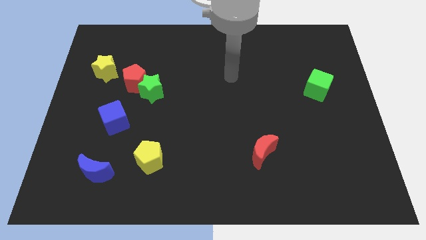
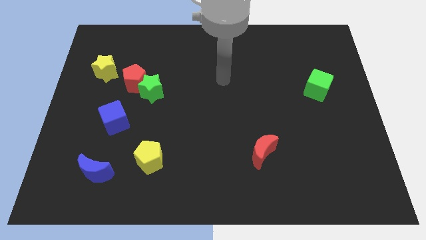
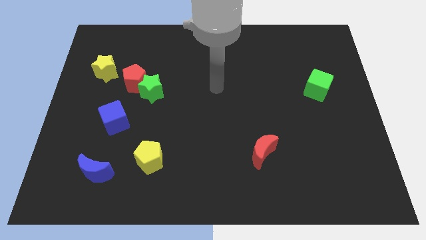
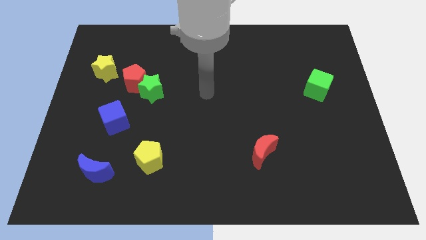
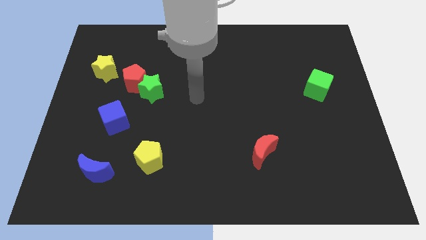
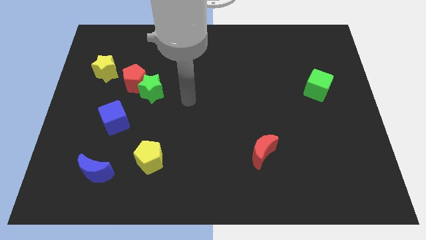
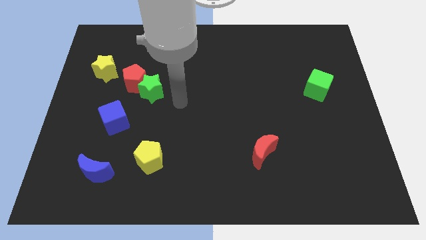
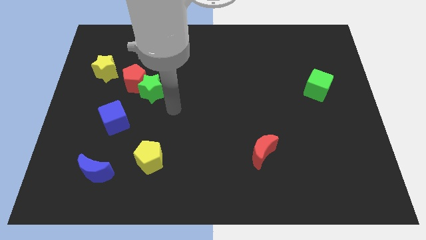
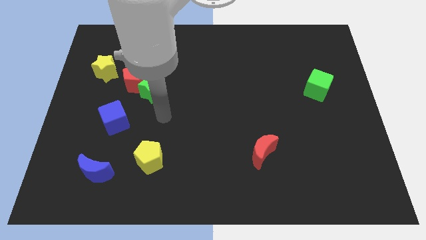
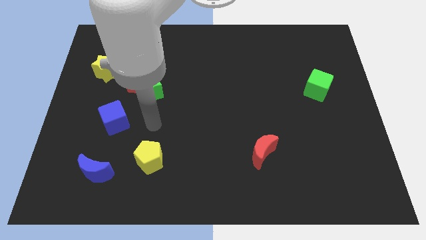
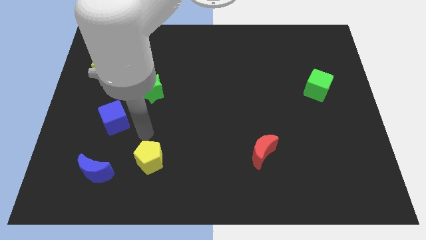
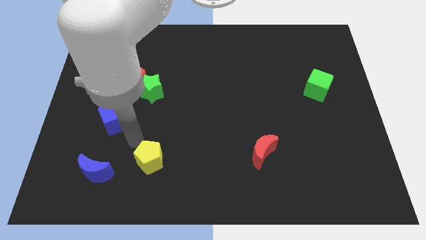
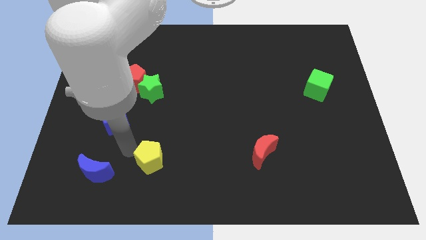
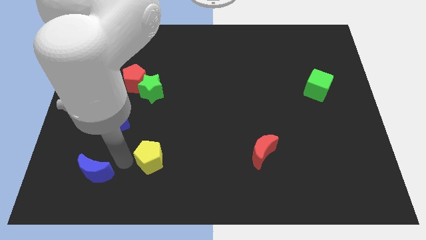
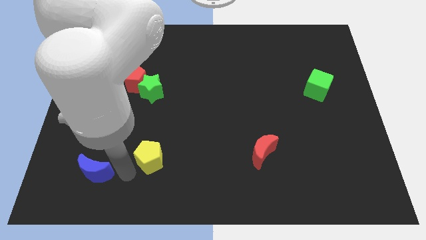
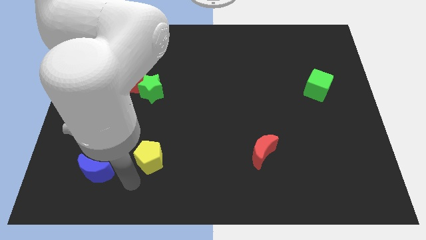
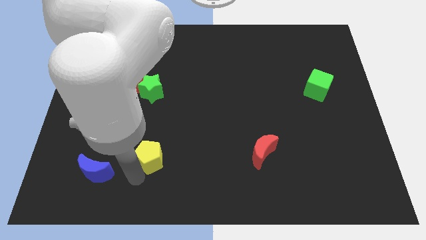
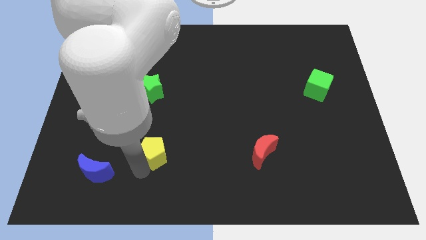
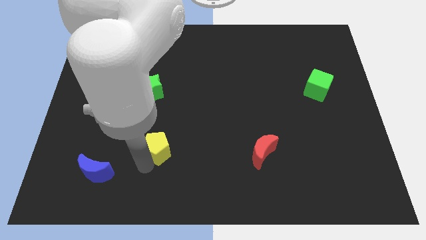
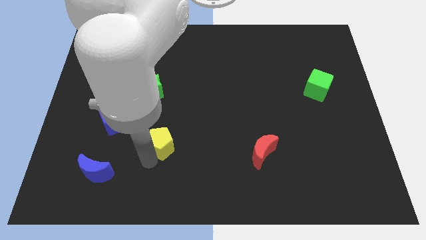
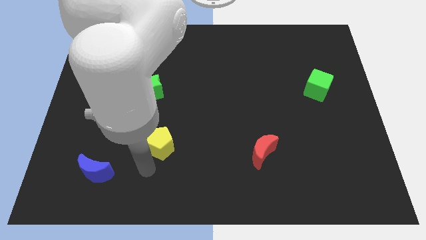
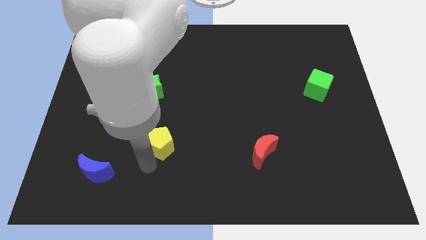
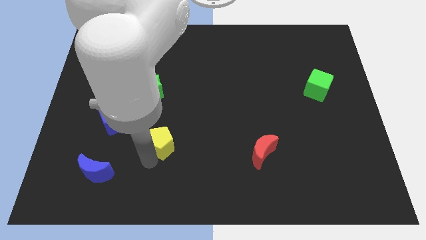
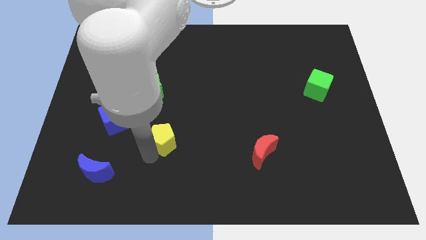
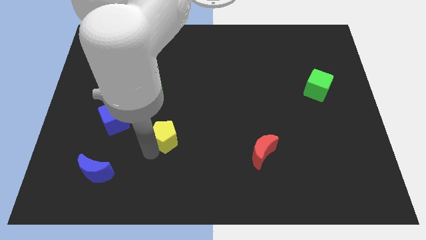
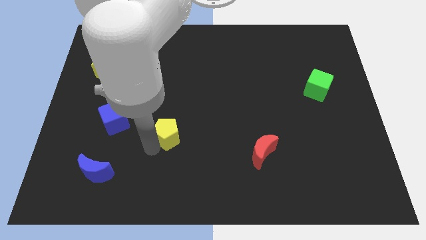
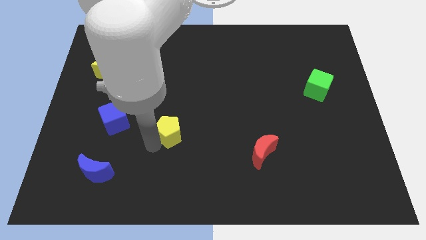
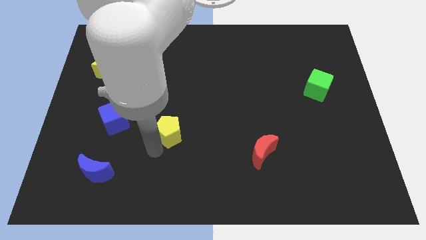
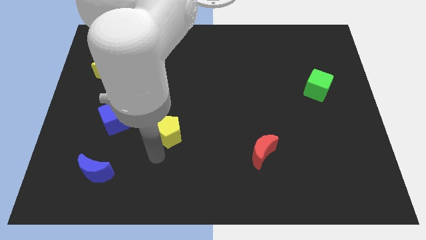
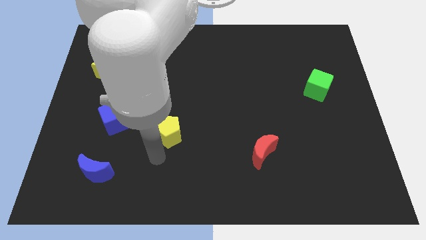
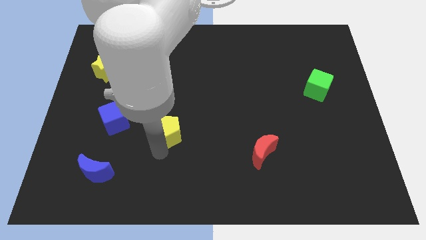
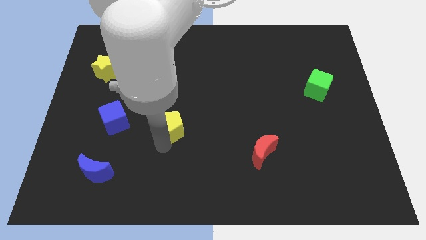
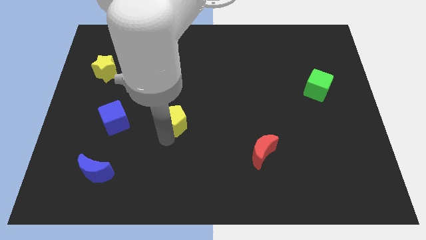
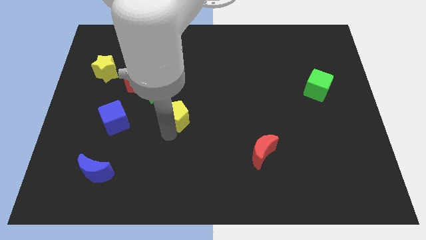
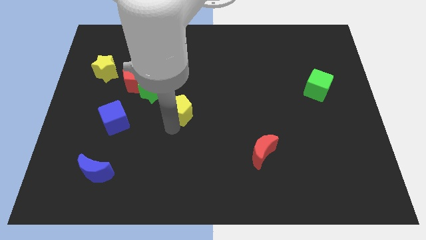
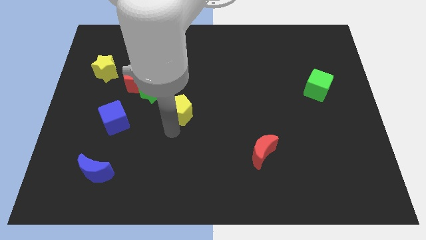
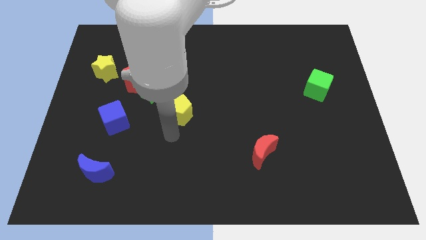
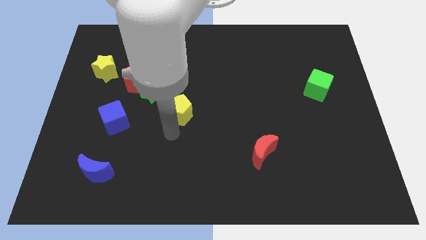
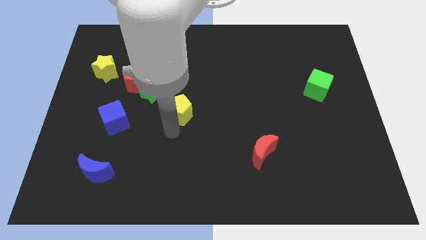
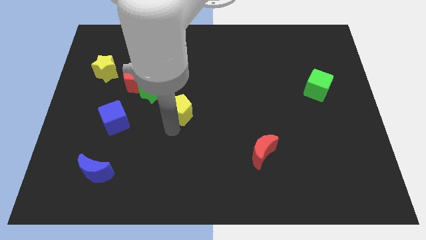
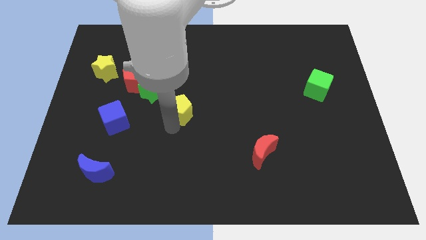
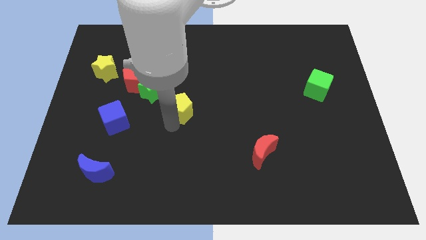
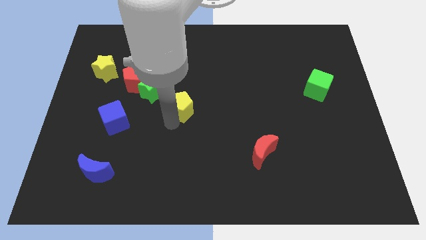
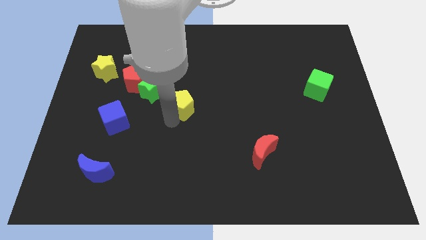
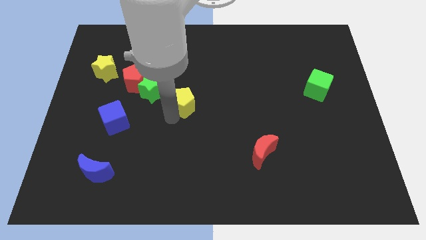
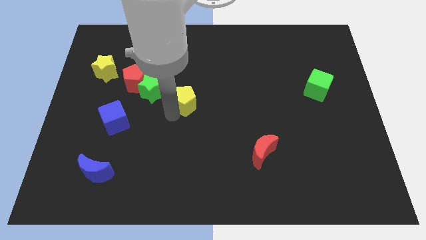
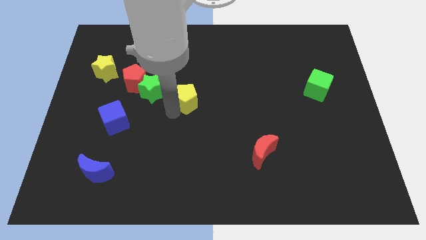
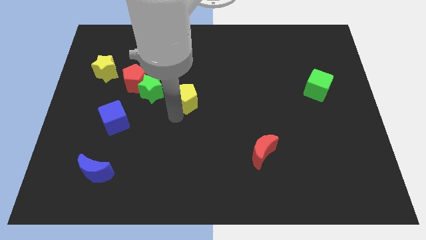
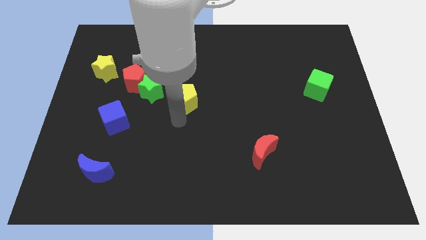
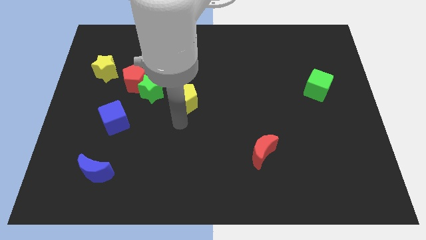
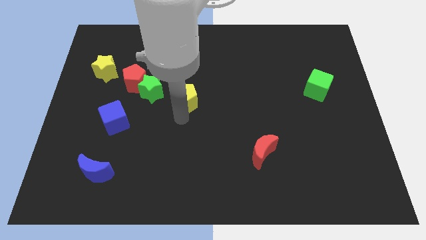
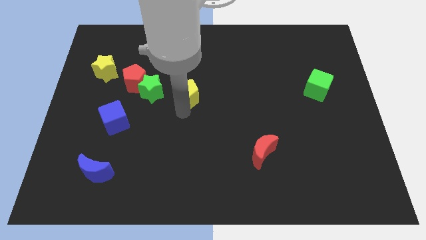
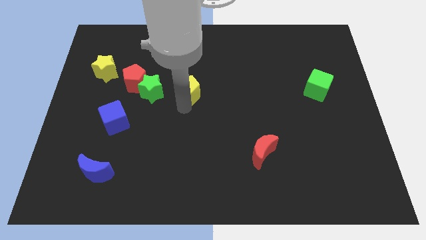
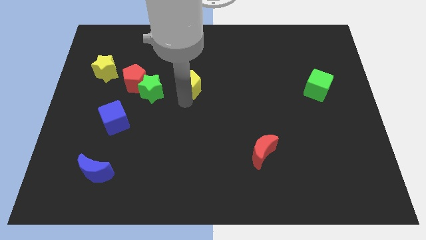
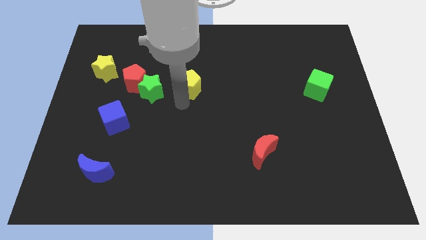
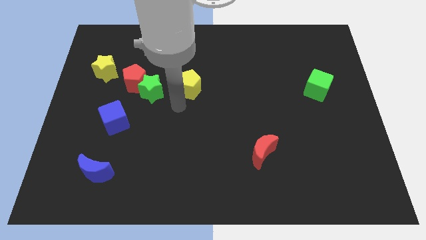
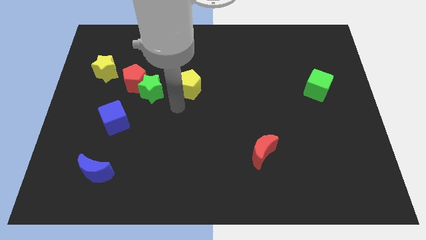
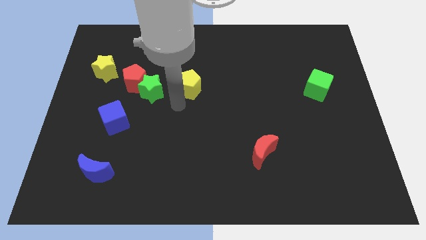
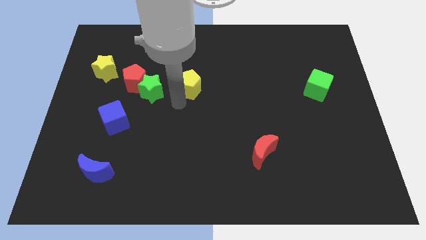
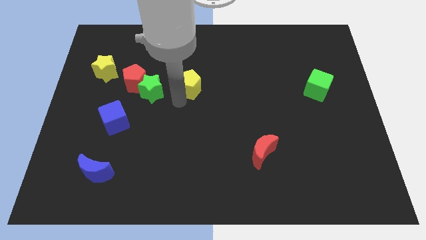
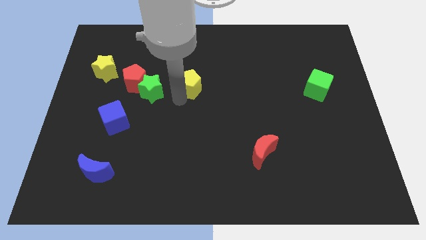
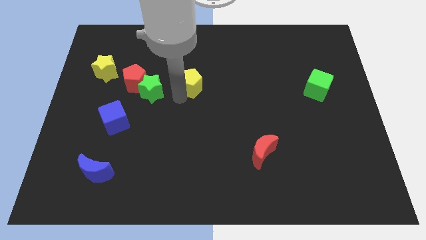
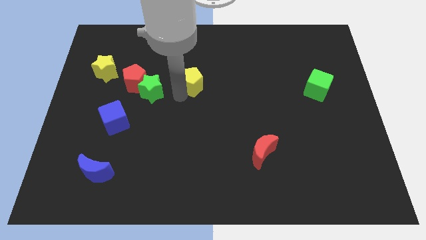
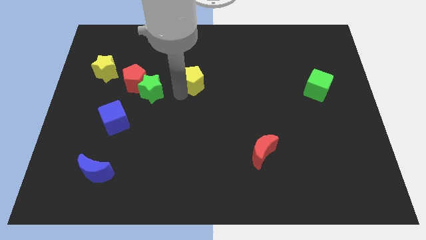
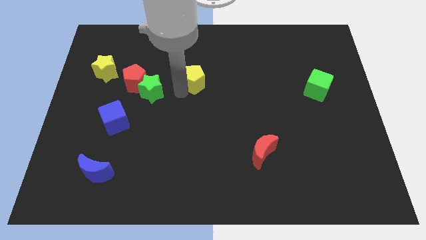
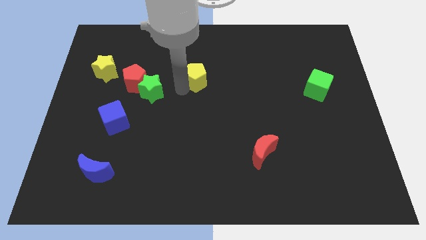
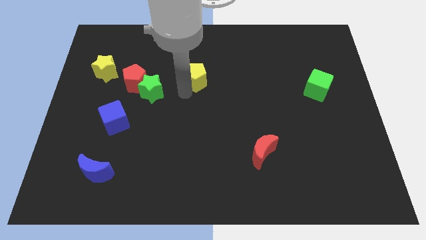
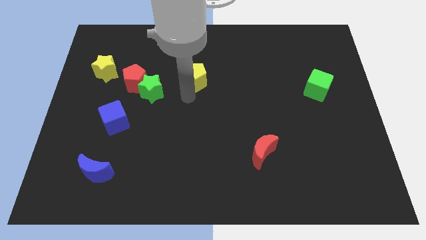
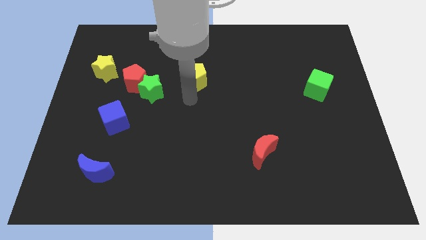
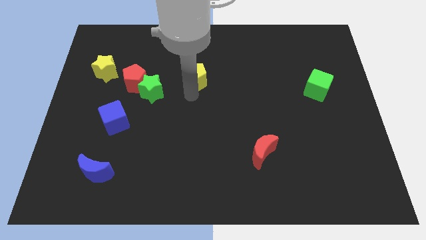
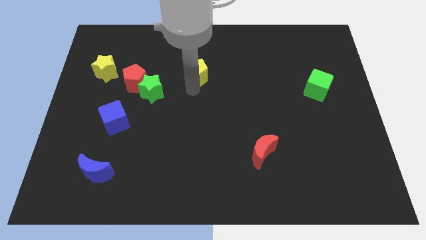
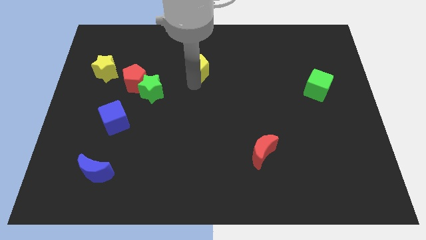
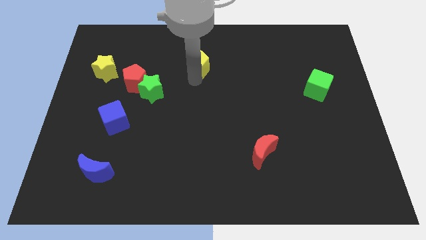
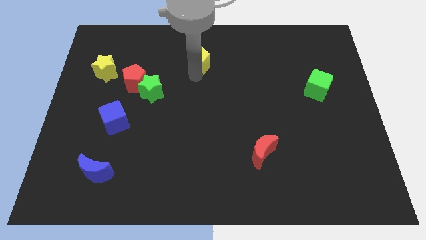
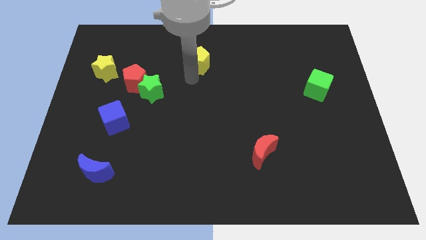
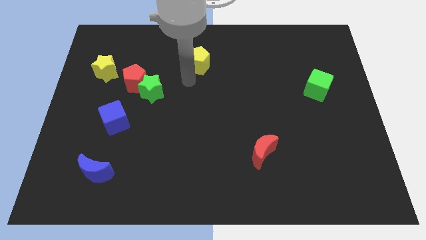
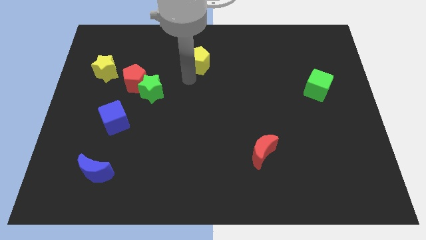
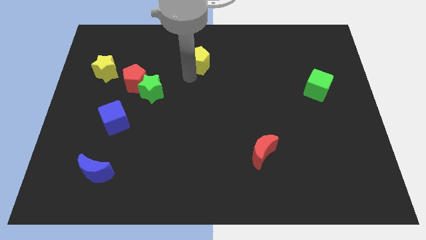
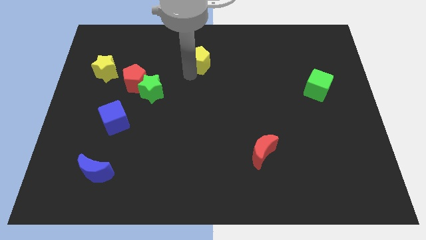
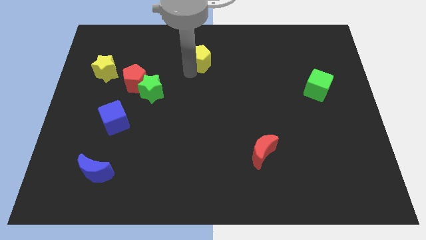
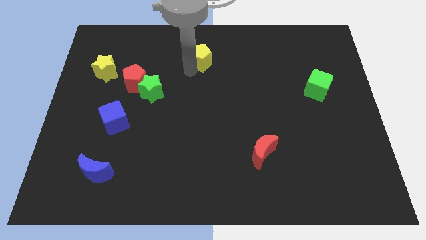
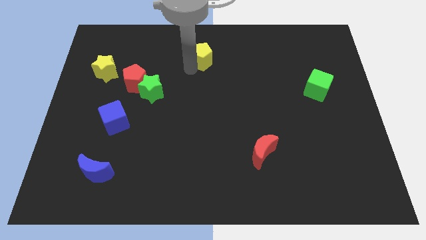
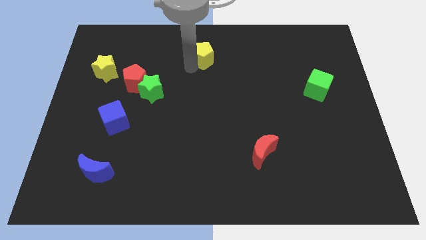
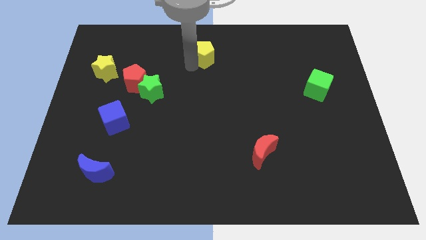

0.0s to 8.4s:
move the yellow pentagon to the top side
